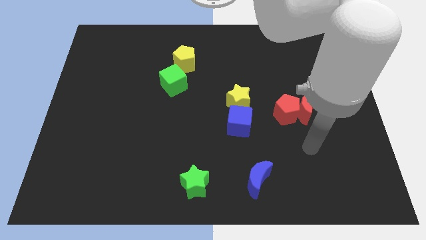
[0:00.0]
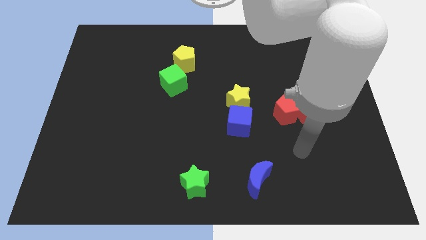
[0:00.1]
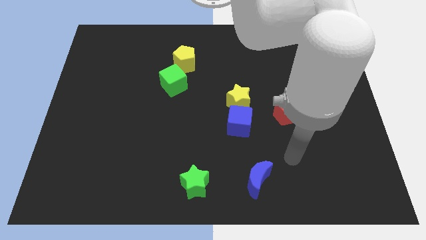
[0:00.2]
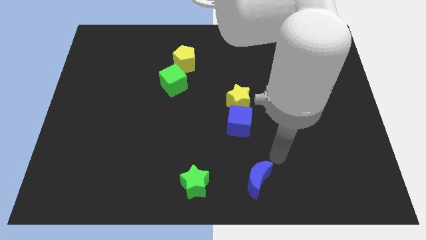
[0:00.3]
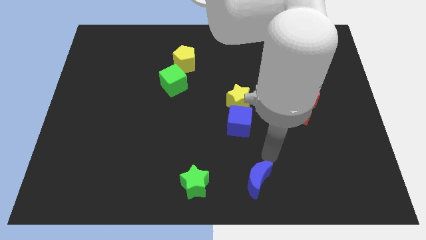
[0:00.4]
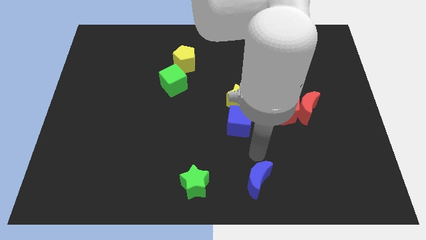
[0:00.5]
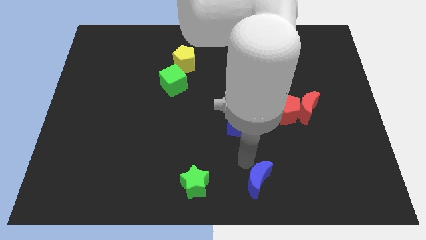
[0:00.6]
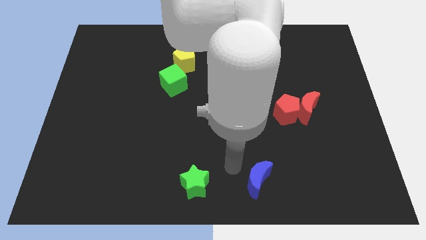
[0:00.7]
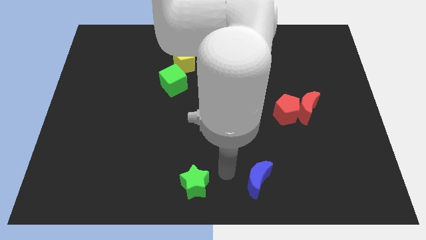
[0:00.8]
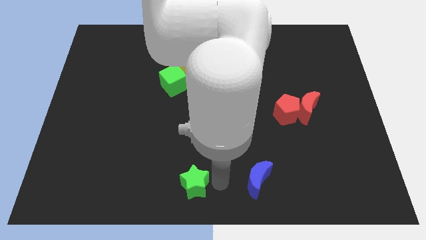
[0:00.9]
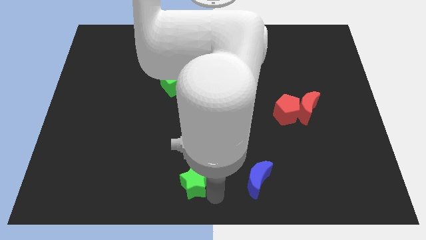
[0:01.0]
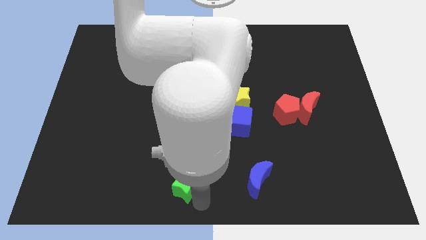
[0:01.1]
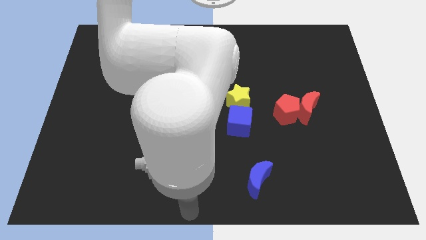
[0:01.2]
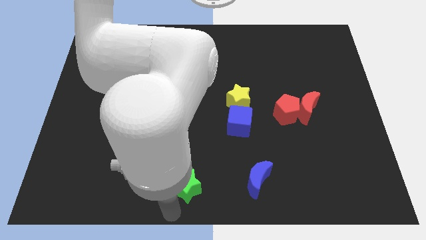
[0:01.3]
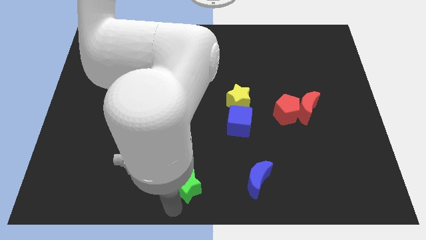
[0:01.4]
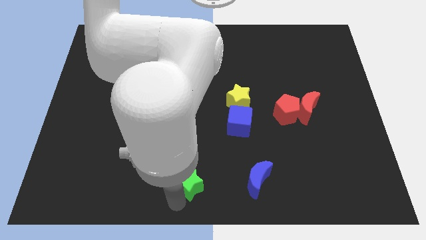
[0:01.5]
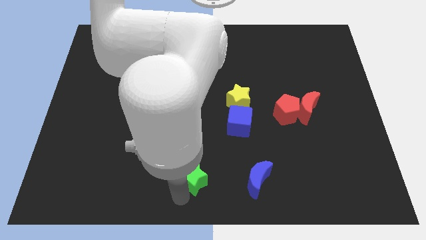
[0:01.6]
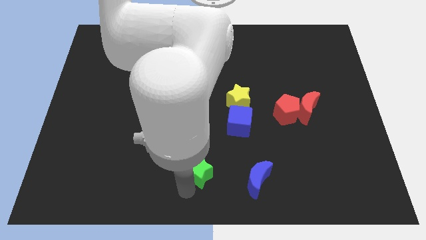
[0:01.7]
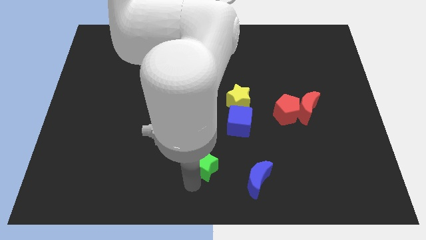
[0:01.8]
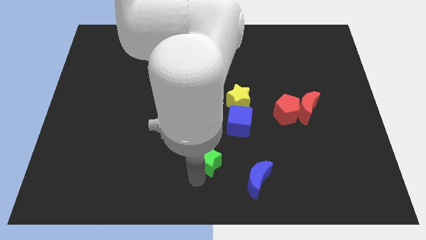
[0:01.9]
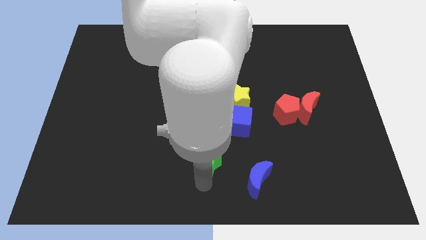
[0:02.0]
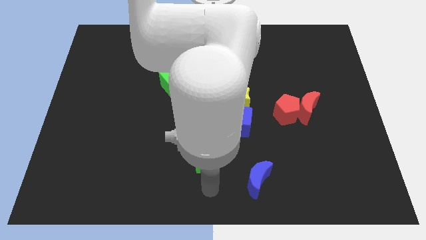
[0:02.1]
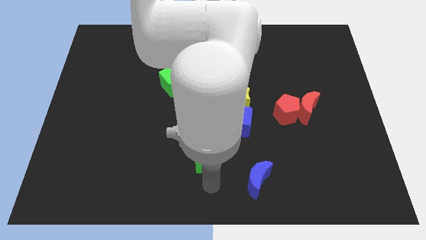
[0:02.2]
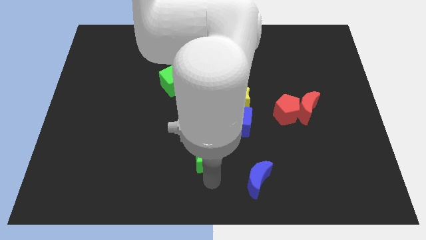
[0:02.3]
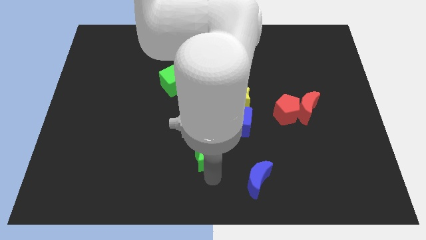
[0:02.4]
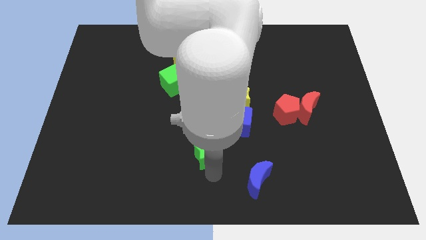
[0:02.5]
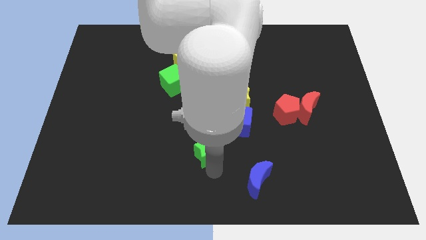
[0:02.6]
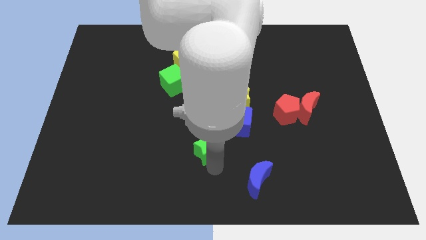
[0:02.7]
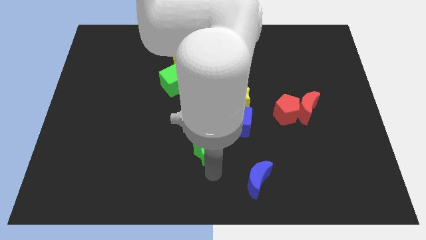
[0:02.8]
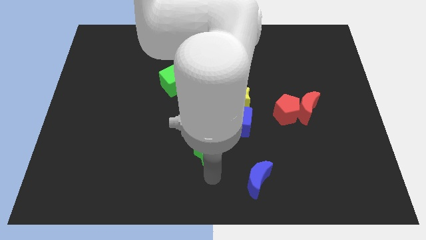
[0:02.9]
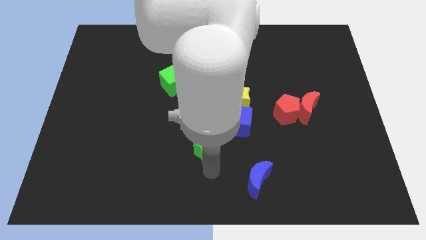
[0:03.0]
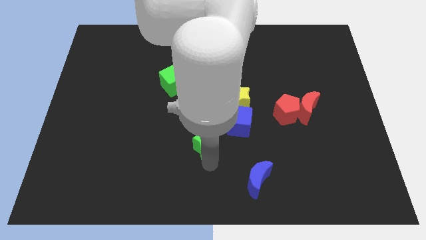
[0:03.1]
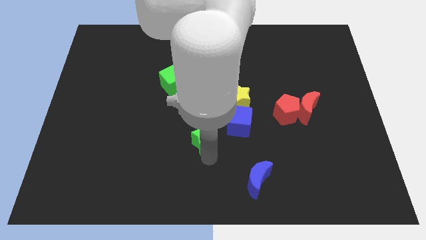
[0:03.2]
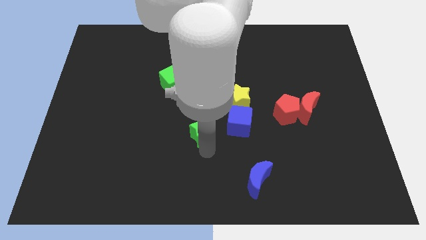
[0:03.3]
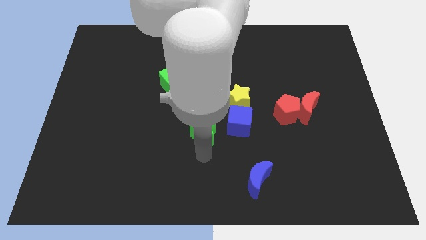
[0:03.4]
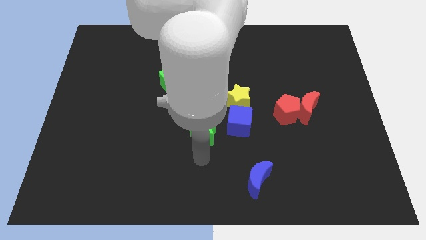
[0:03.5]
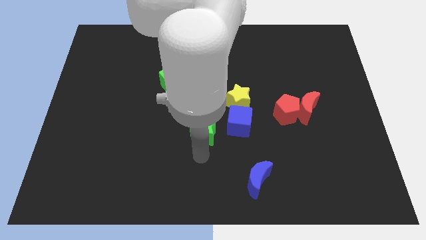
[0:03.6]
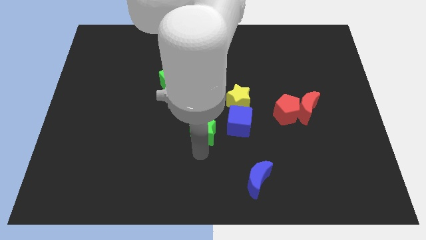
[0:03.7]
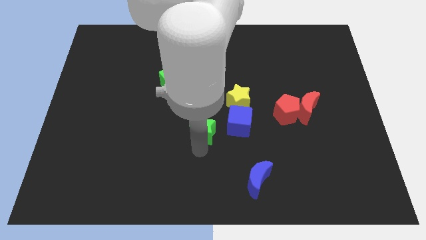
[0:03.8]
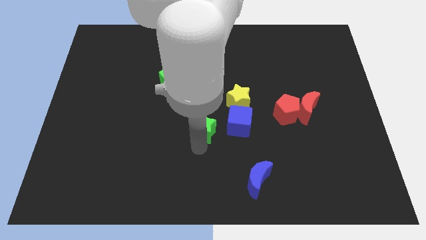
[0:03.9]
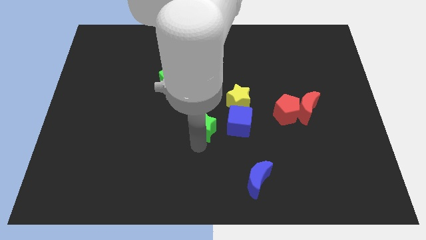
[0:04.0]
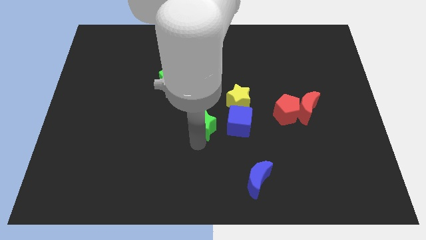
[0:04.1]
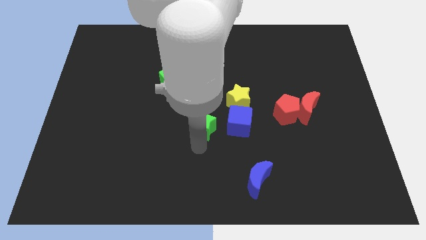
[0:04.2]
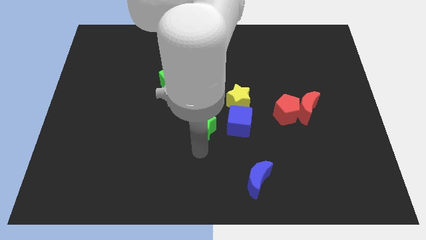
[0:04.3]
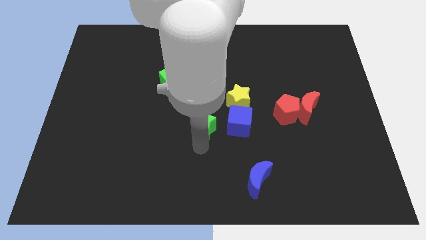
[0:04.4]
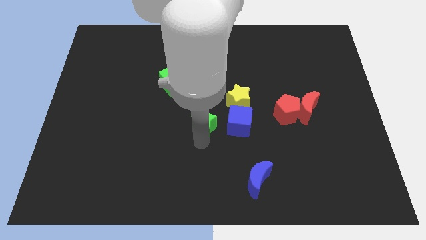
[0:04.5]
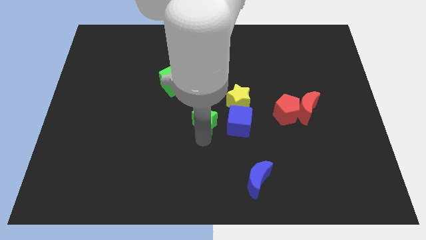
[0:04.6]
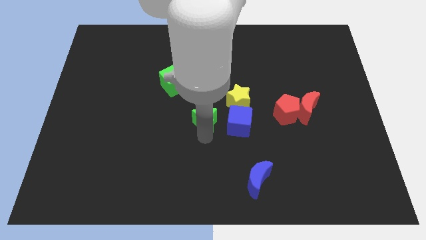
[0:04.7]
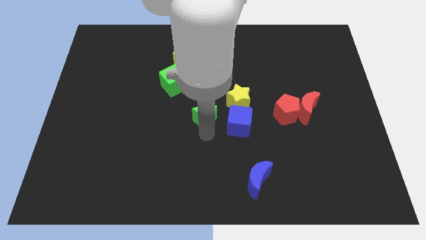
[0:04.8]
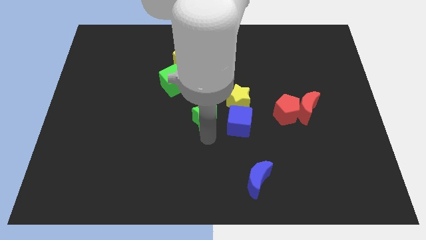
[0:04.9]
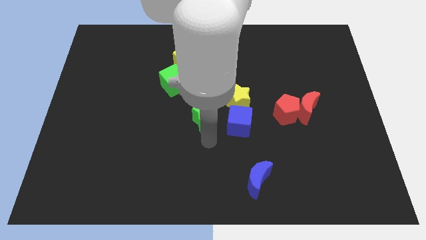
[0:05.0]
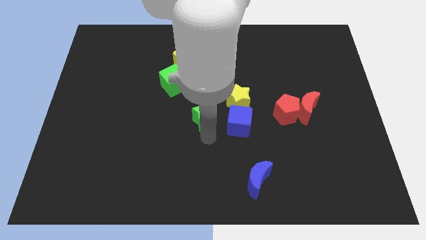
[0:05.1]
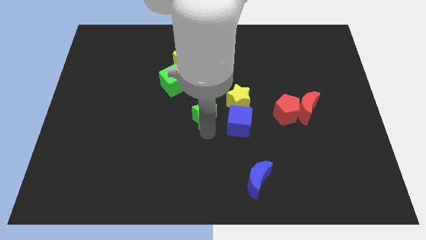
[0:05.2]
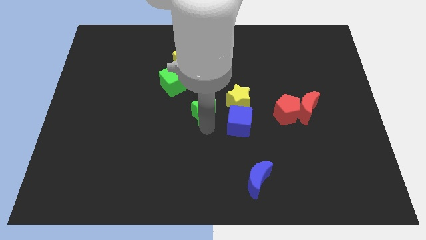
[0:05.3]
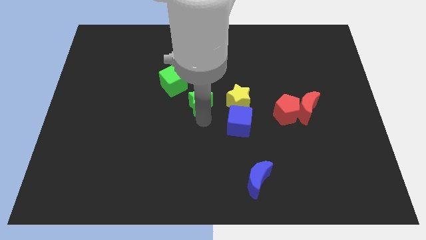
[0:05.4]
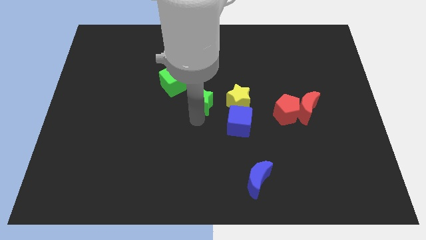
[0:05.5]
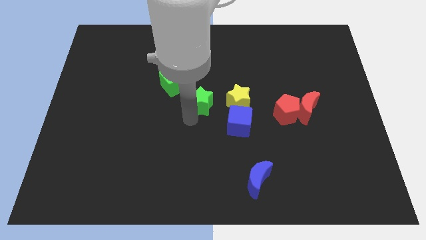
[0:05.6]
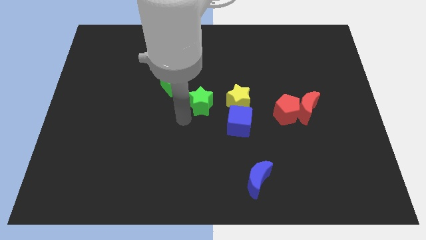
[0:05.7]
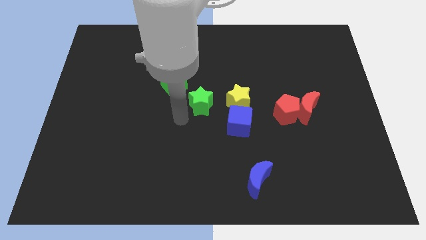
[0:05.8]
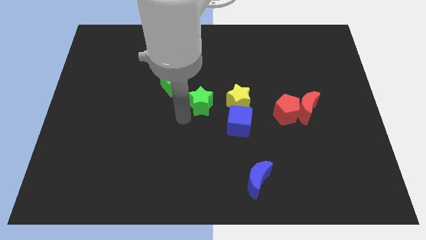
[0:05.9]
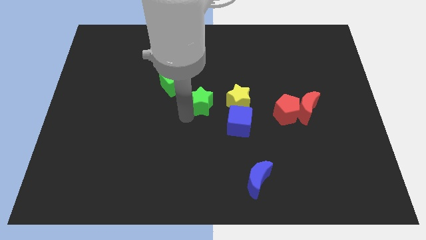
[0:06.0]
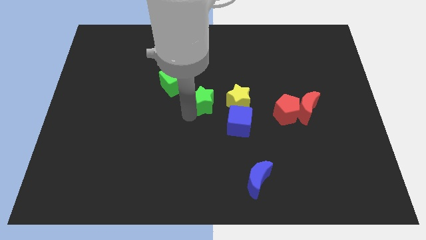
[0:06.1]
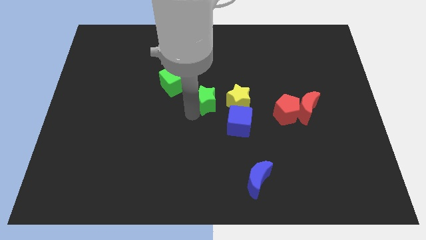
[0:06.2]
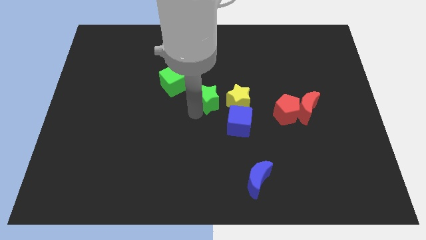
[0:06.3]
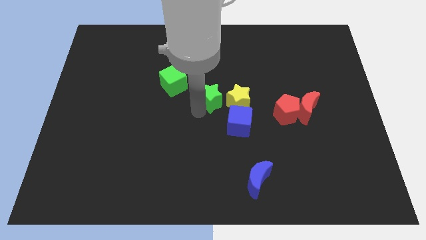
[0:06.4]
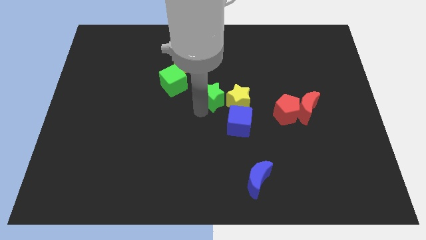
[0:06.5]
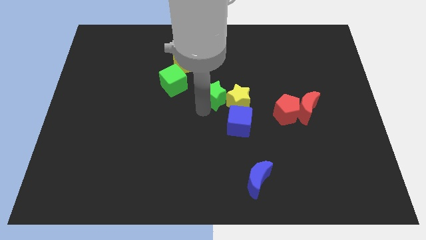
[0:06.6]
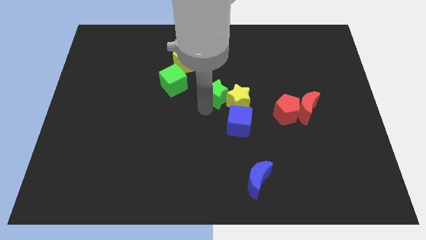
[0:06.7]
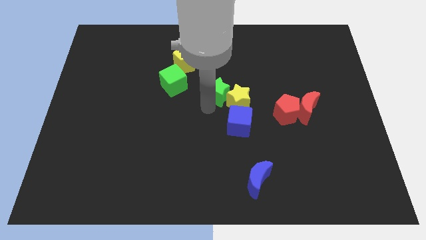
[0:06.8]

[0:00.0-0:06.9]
push the green star above the blue cube
